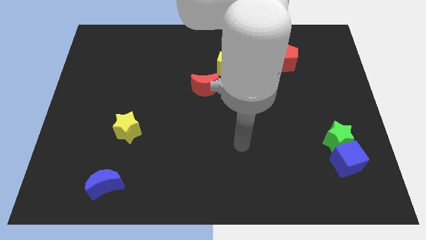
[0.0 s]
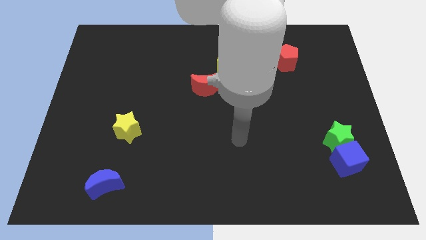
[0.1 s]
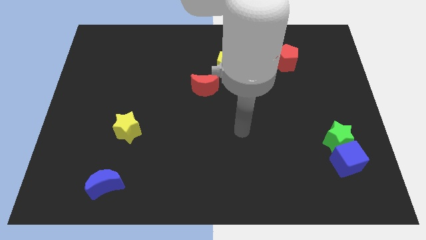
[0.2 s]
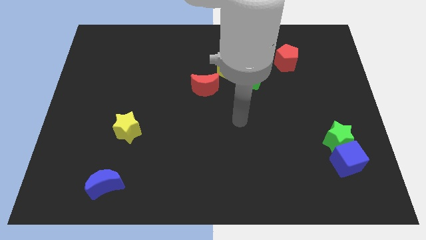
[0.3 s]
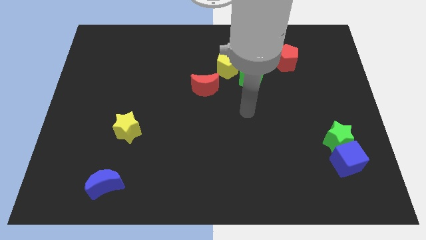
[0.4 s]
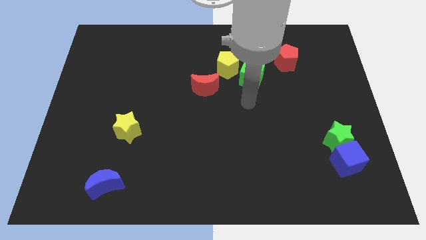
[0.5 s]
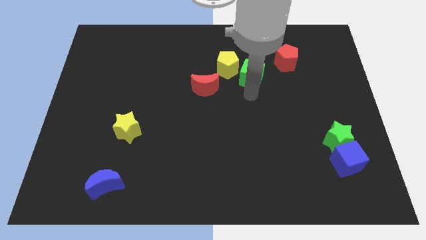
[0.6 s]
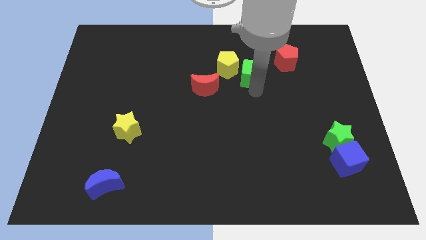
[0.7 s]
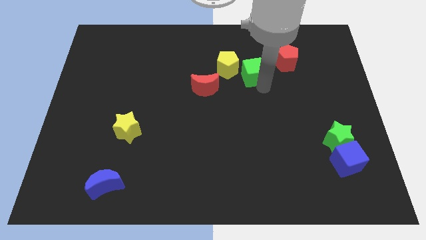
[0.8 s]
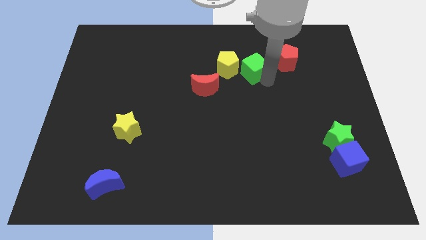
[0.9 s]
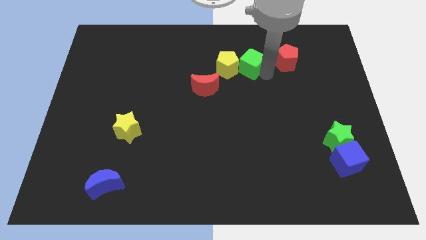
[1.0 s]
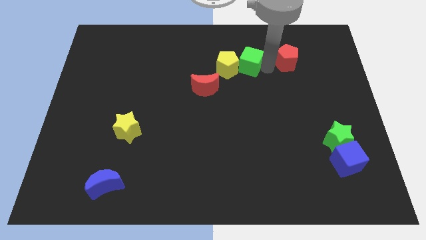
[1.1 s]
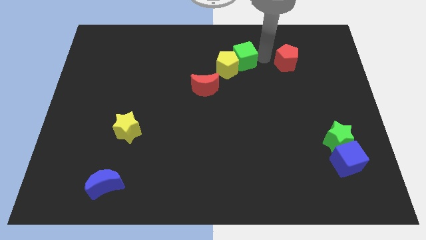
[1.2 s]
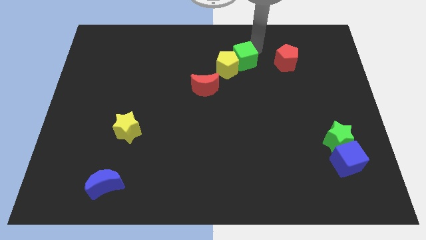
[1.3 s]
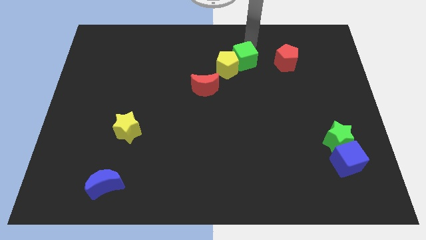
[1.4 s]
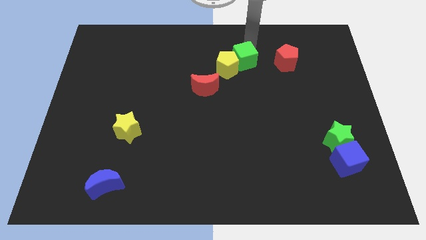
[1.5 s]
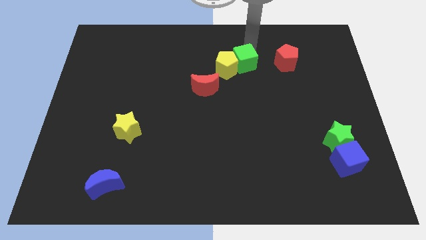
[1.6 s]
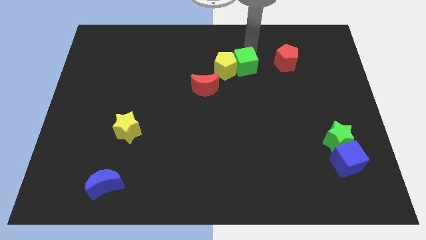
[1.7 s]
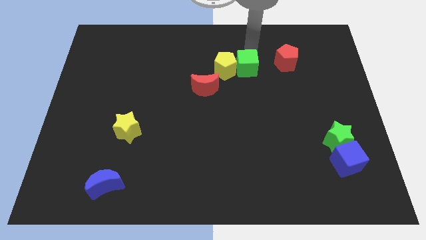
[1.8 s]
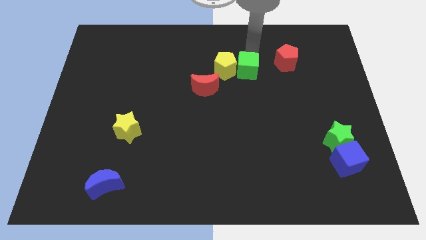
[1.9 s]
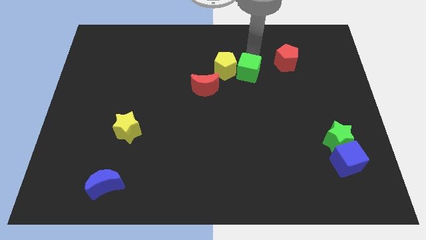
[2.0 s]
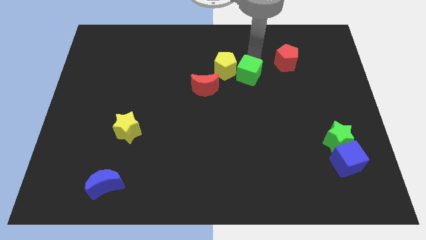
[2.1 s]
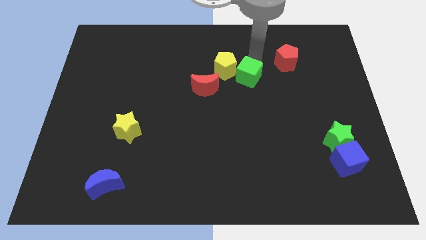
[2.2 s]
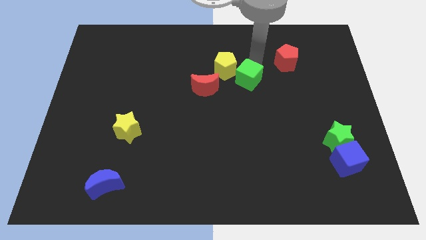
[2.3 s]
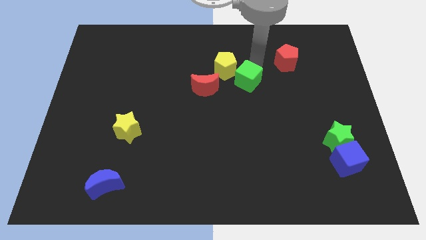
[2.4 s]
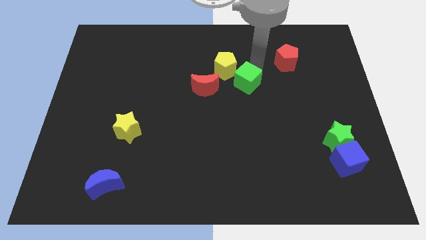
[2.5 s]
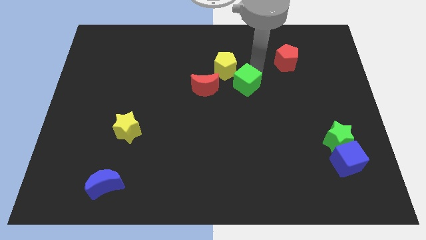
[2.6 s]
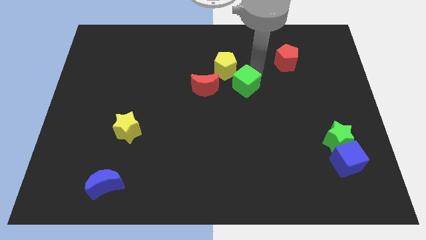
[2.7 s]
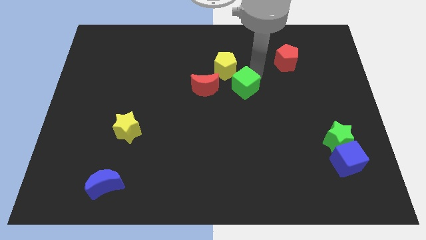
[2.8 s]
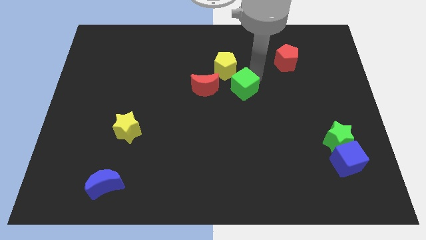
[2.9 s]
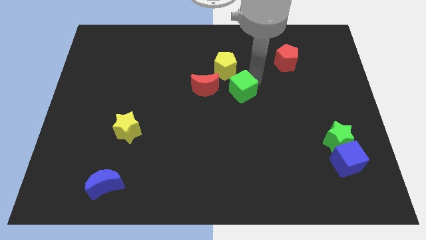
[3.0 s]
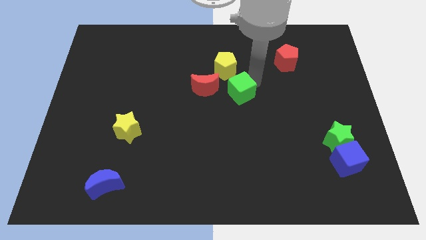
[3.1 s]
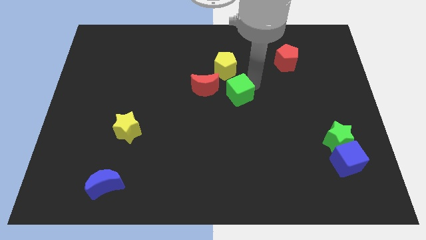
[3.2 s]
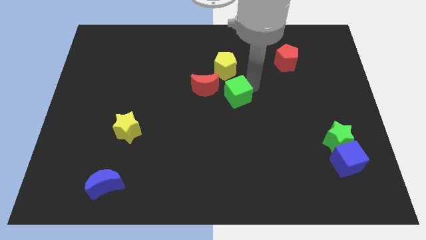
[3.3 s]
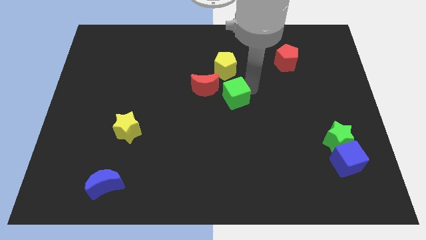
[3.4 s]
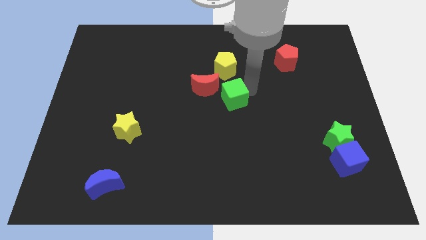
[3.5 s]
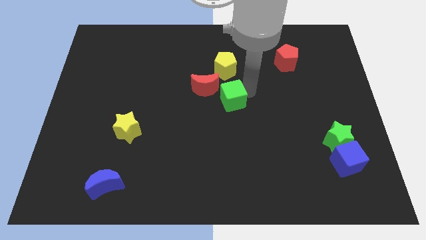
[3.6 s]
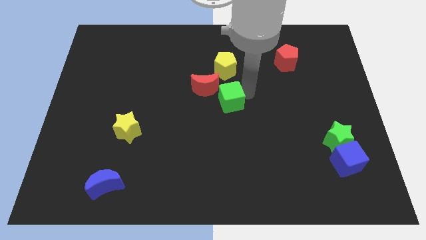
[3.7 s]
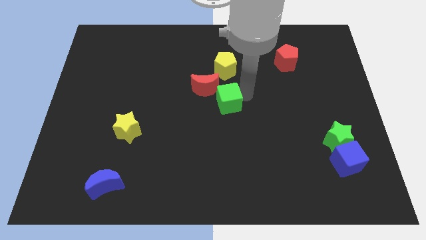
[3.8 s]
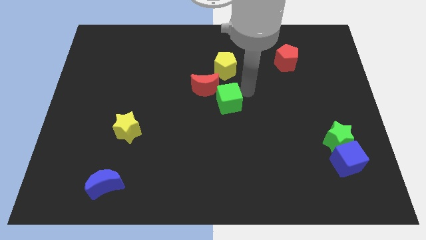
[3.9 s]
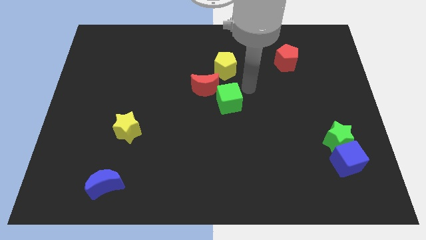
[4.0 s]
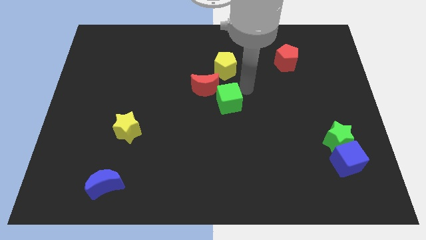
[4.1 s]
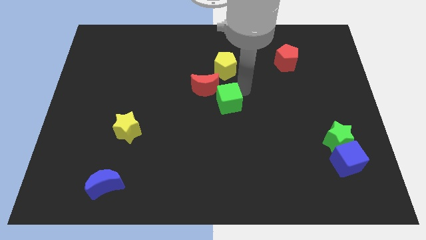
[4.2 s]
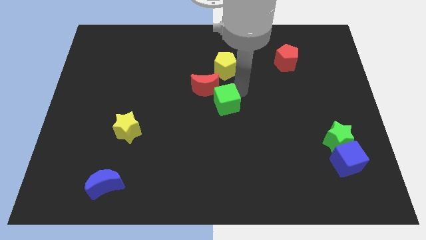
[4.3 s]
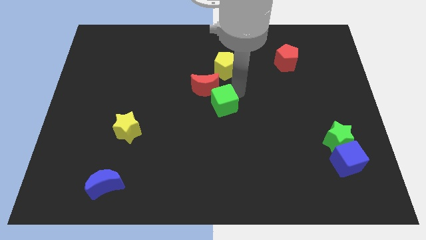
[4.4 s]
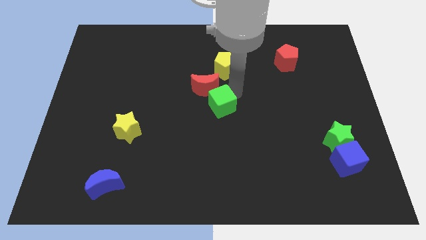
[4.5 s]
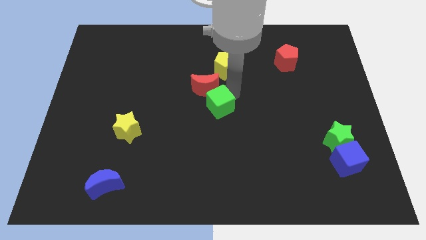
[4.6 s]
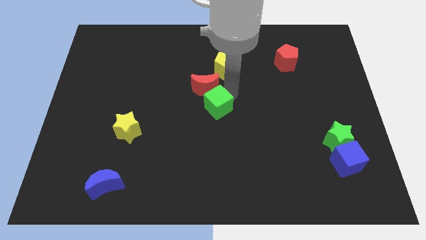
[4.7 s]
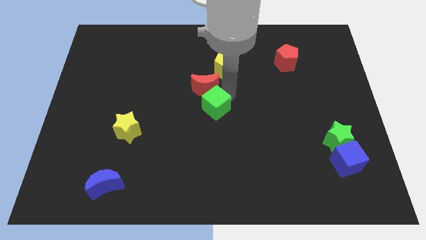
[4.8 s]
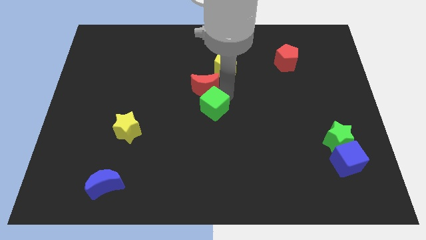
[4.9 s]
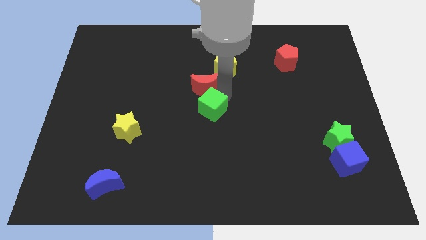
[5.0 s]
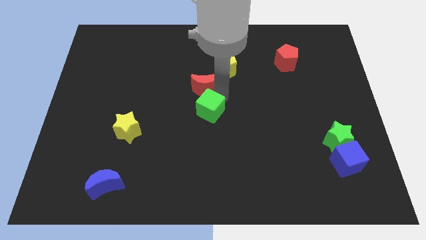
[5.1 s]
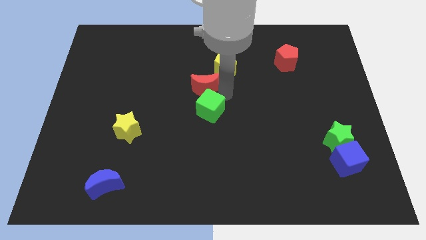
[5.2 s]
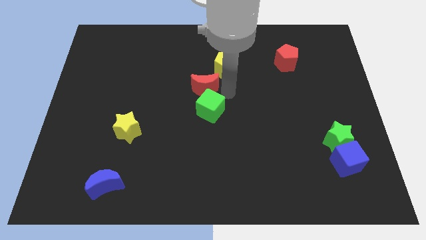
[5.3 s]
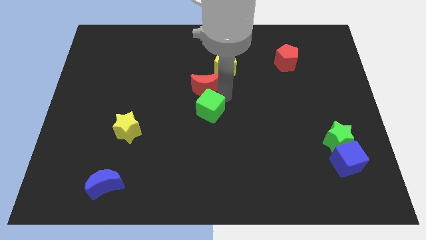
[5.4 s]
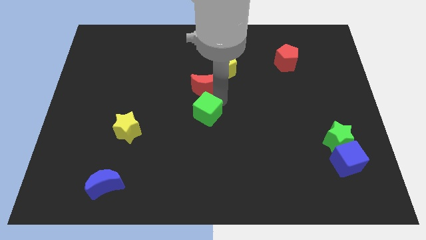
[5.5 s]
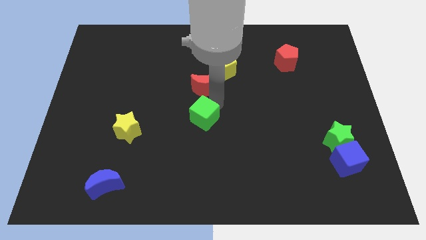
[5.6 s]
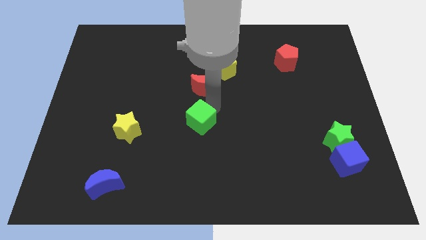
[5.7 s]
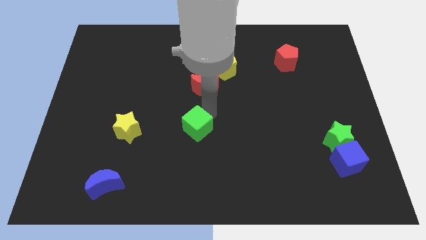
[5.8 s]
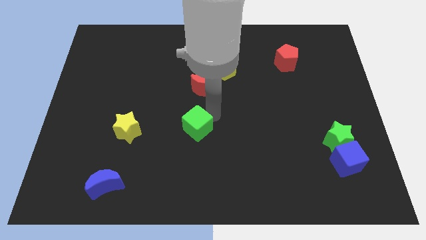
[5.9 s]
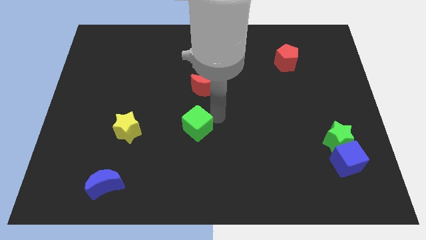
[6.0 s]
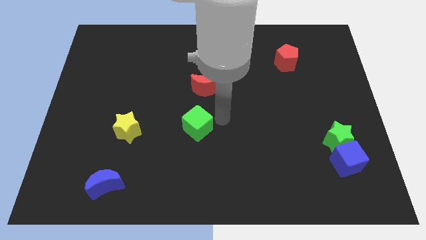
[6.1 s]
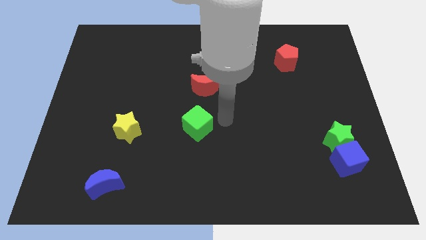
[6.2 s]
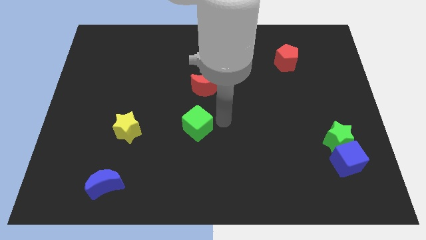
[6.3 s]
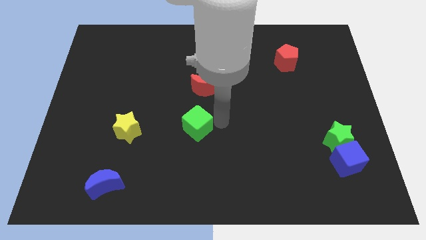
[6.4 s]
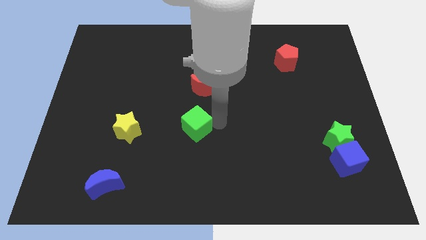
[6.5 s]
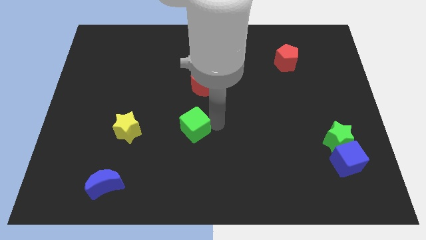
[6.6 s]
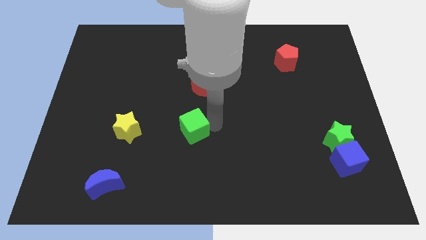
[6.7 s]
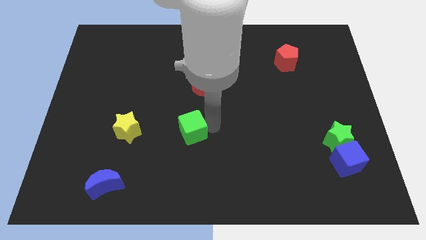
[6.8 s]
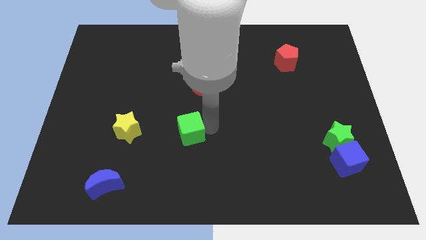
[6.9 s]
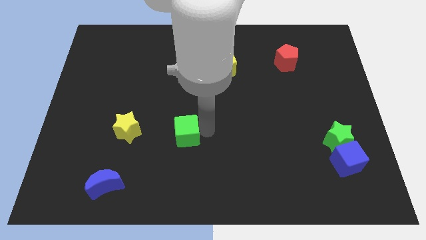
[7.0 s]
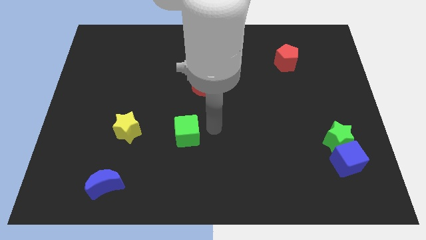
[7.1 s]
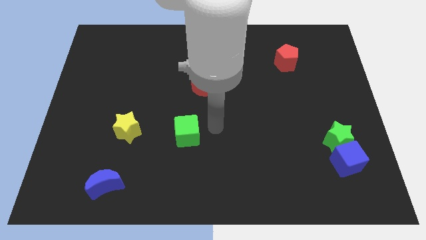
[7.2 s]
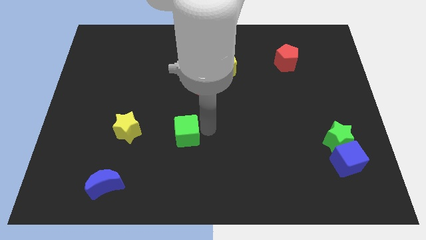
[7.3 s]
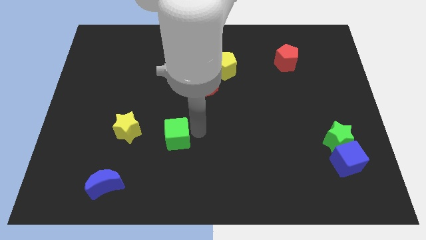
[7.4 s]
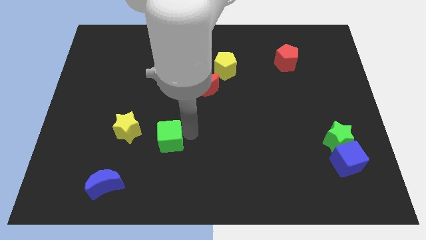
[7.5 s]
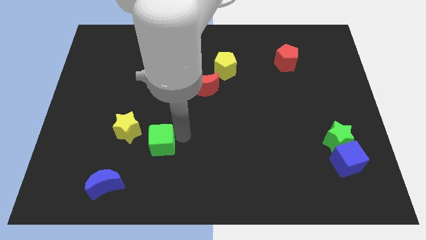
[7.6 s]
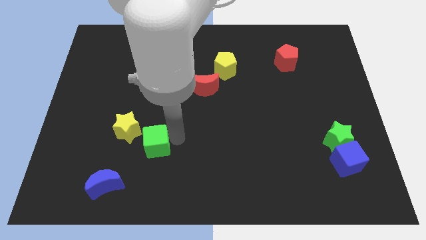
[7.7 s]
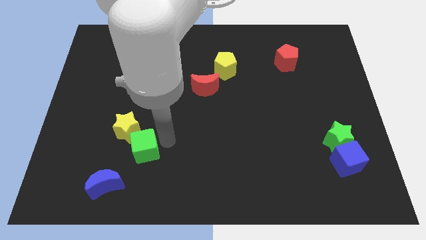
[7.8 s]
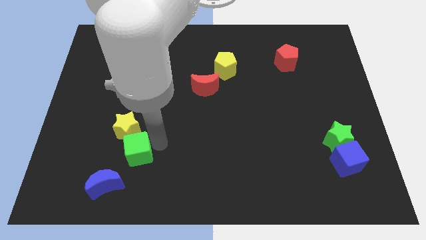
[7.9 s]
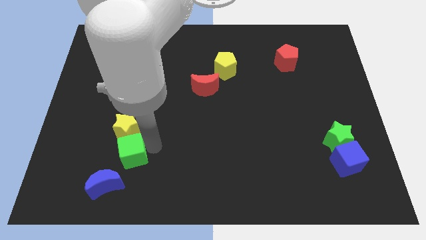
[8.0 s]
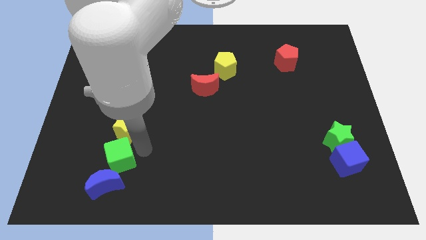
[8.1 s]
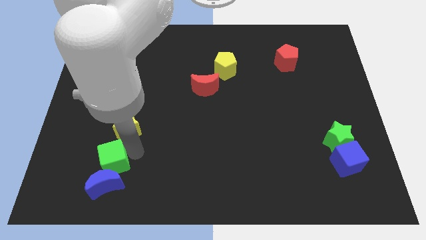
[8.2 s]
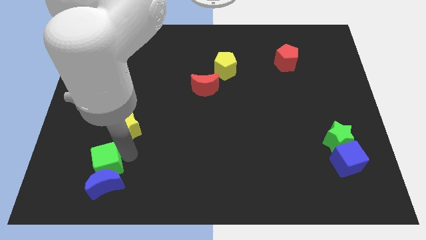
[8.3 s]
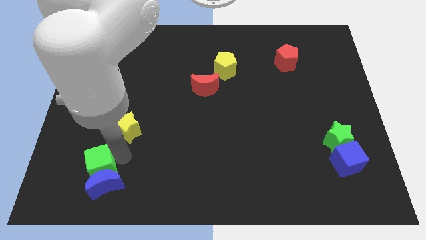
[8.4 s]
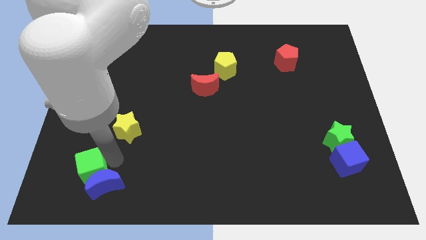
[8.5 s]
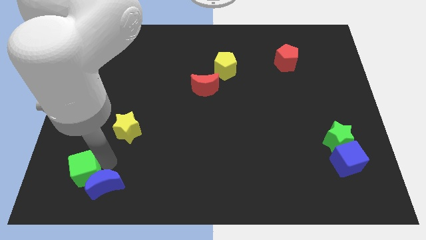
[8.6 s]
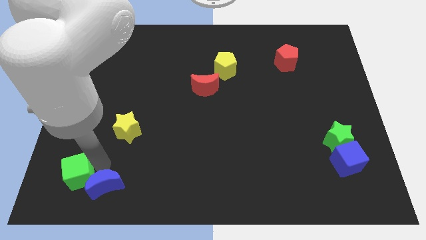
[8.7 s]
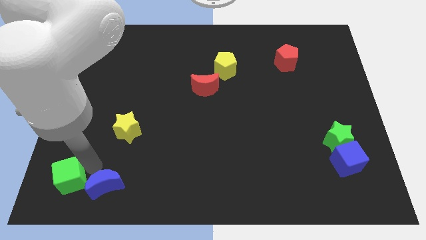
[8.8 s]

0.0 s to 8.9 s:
move the green cube to the bottom left
